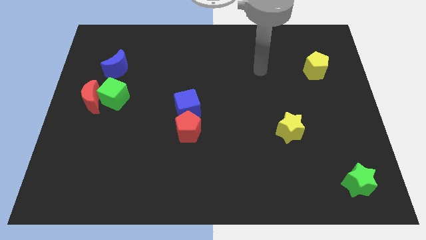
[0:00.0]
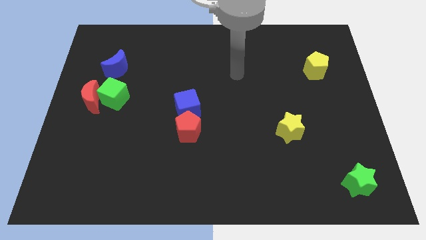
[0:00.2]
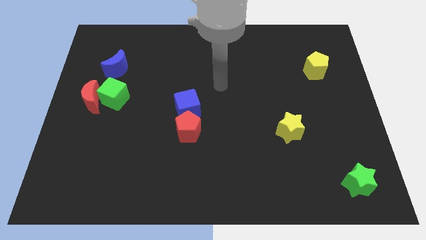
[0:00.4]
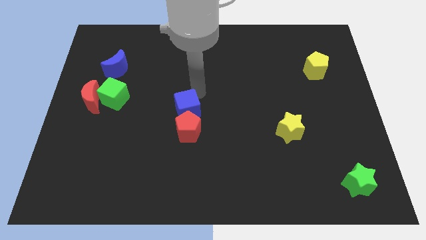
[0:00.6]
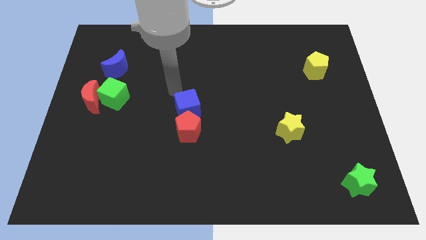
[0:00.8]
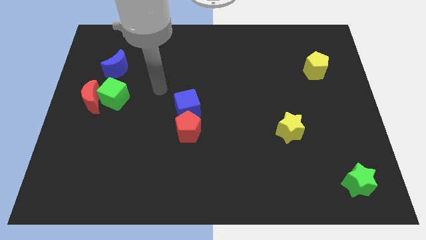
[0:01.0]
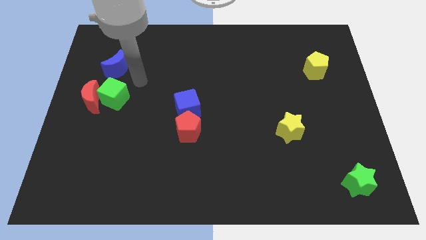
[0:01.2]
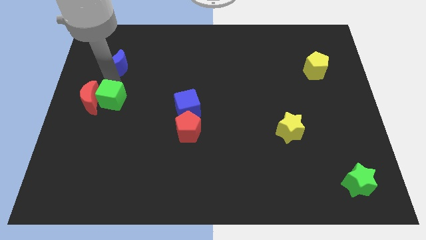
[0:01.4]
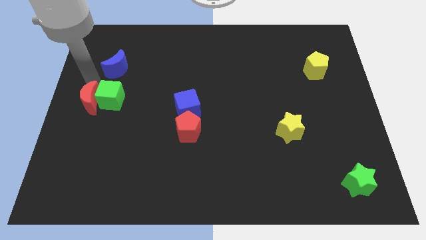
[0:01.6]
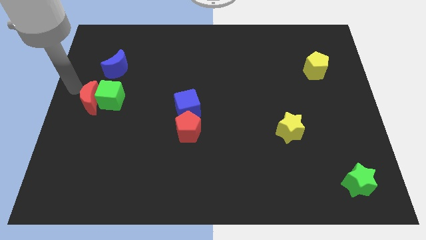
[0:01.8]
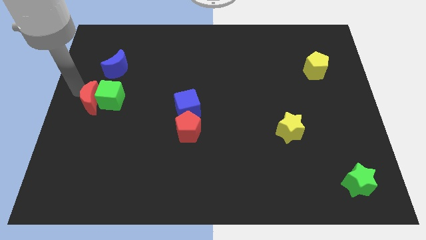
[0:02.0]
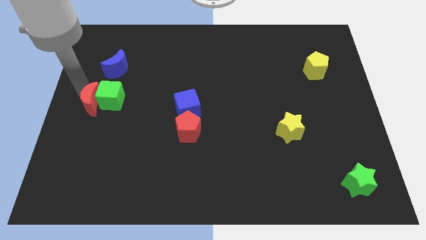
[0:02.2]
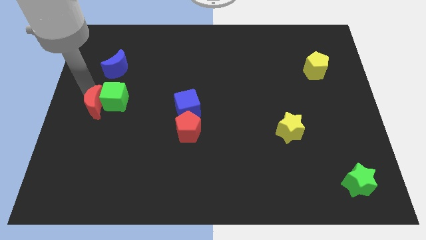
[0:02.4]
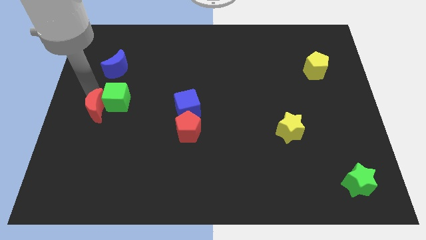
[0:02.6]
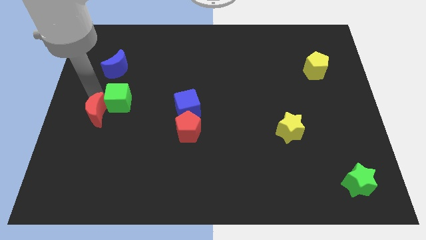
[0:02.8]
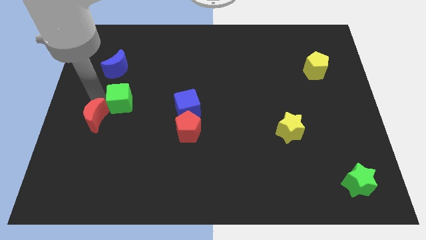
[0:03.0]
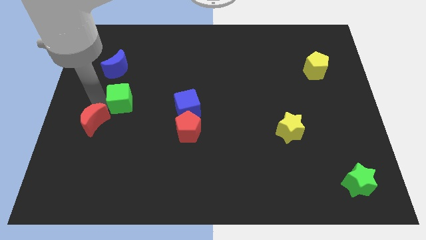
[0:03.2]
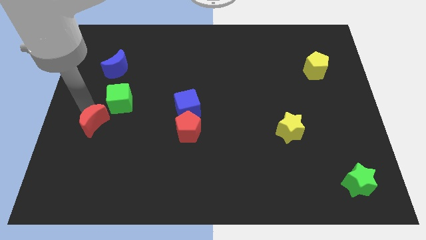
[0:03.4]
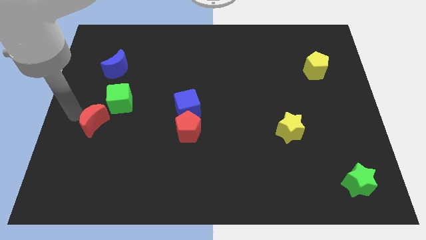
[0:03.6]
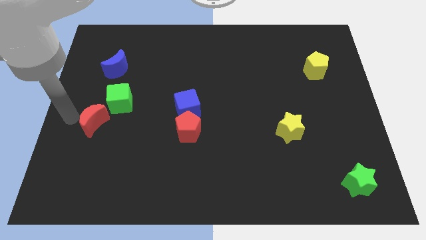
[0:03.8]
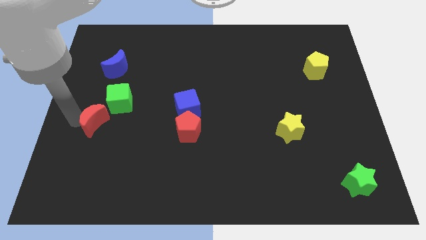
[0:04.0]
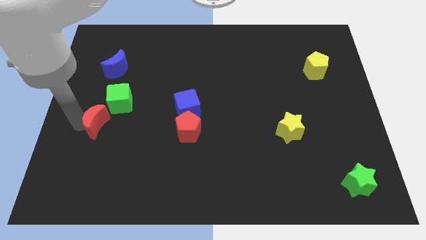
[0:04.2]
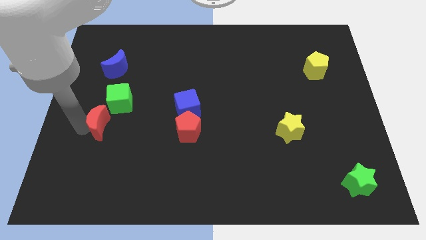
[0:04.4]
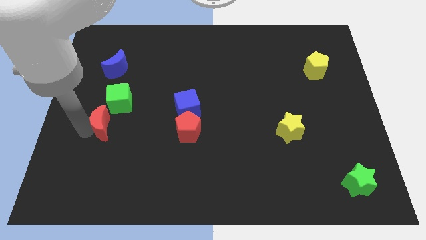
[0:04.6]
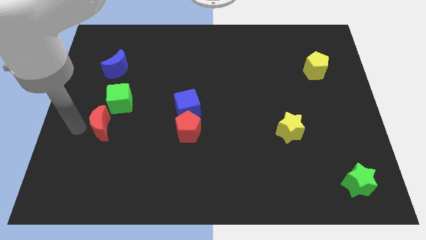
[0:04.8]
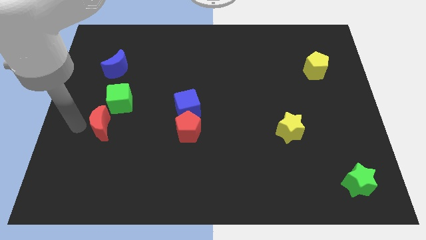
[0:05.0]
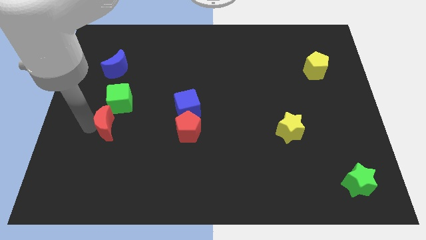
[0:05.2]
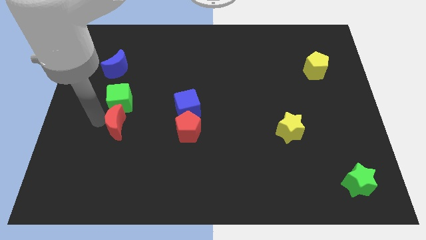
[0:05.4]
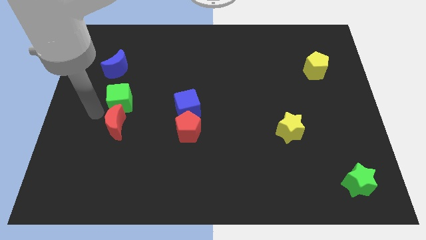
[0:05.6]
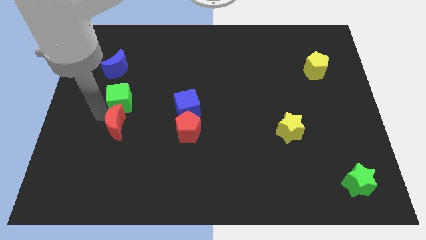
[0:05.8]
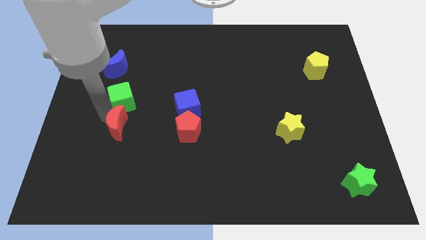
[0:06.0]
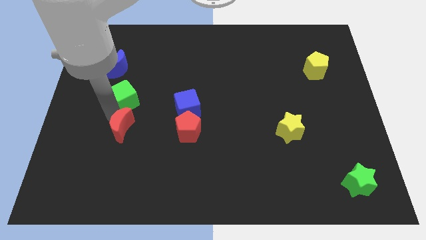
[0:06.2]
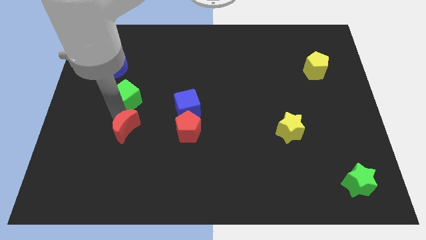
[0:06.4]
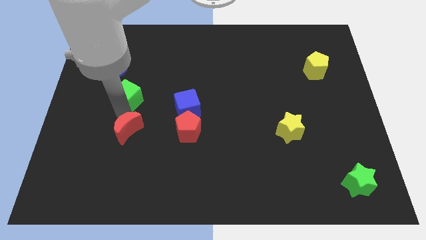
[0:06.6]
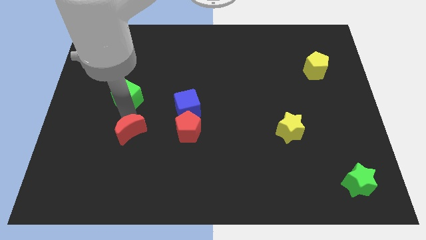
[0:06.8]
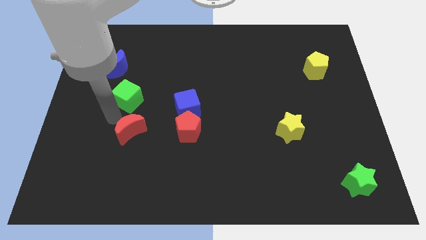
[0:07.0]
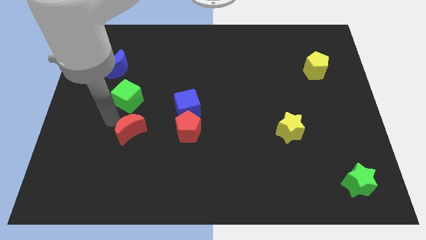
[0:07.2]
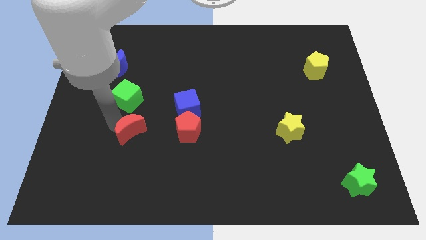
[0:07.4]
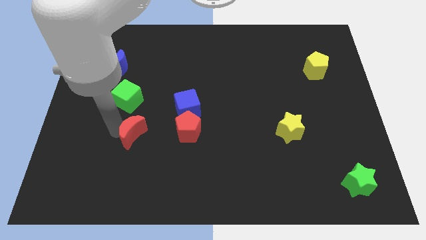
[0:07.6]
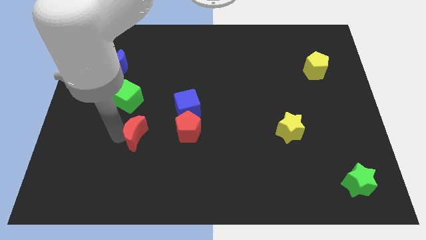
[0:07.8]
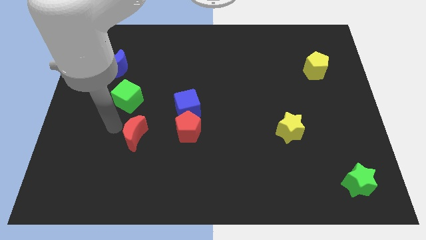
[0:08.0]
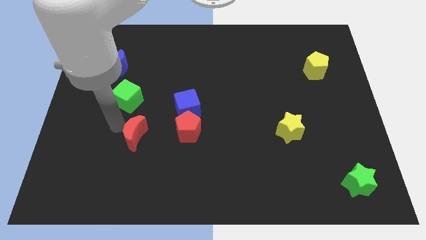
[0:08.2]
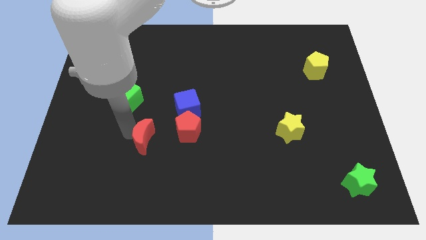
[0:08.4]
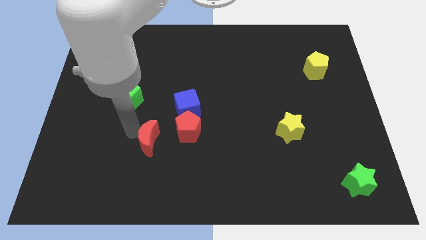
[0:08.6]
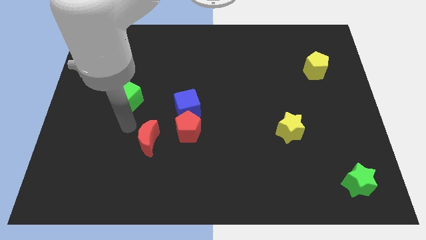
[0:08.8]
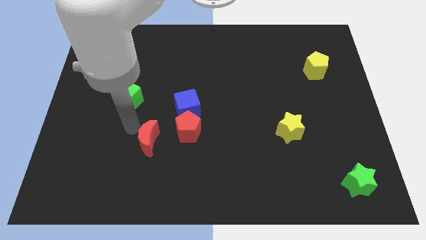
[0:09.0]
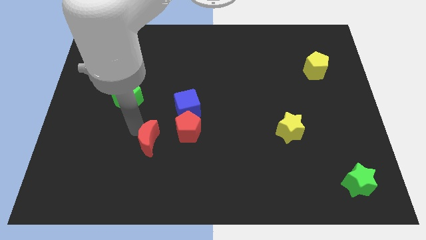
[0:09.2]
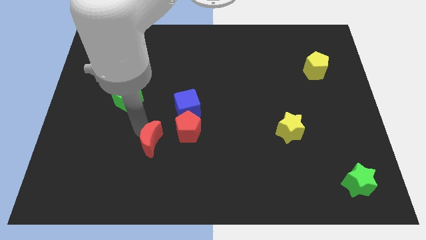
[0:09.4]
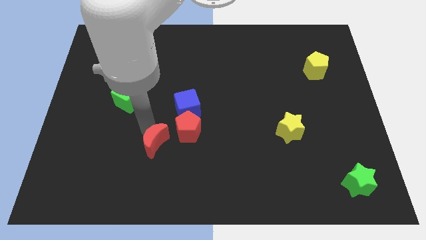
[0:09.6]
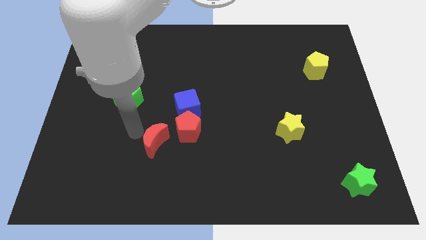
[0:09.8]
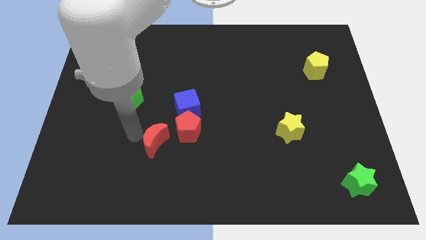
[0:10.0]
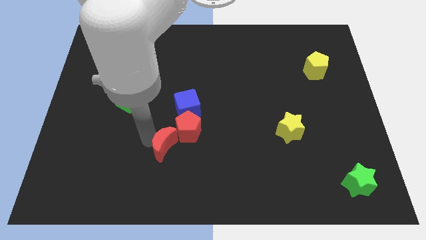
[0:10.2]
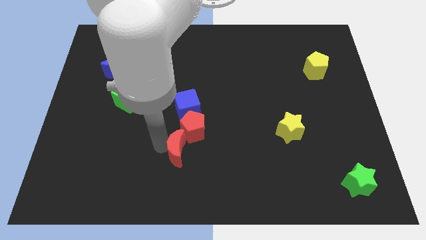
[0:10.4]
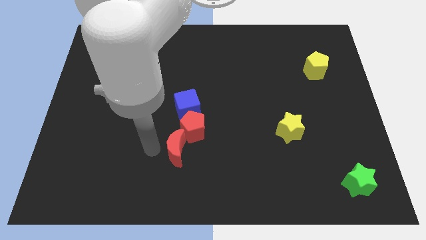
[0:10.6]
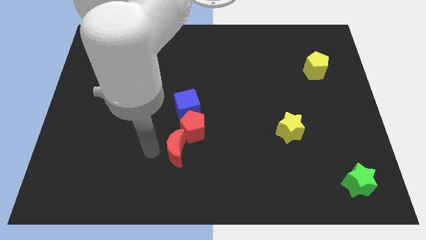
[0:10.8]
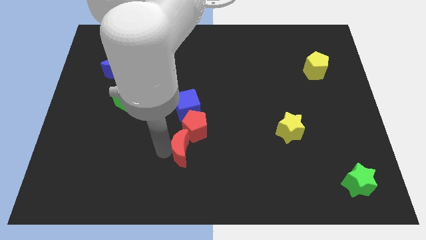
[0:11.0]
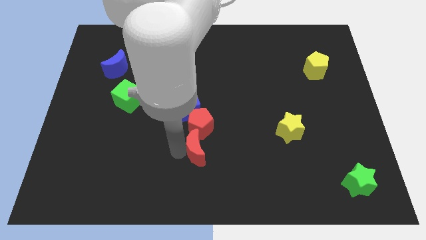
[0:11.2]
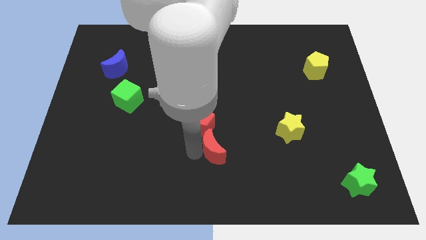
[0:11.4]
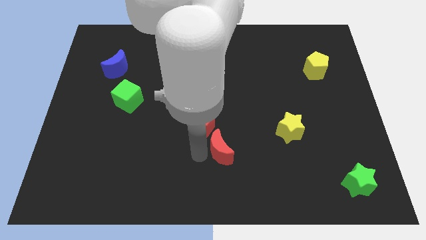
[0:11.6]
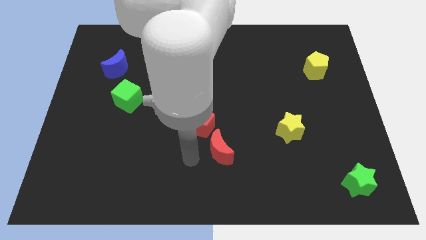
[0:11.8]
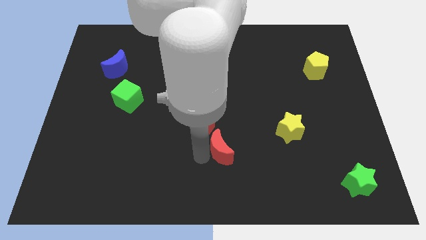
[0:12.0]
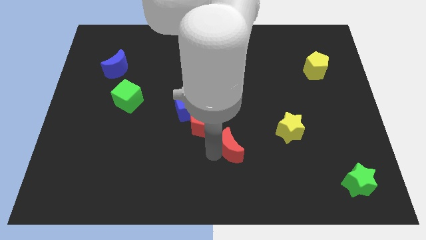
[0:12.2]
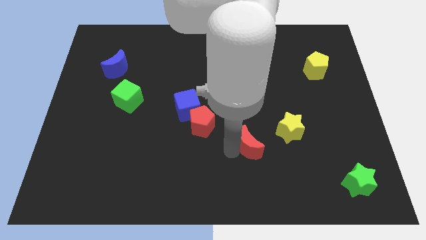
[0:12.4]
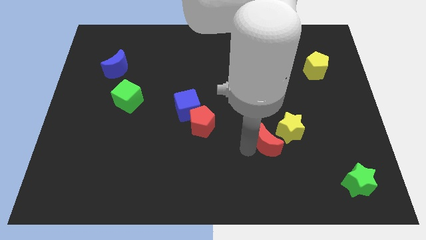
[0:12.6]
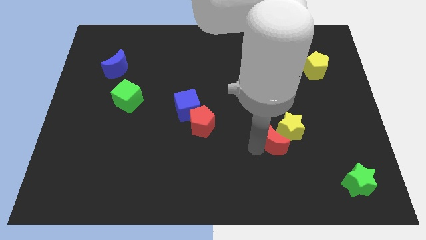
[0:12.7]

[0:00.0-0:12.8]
put the red moon next to the yellow star

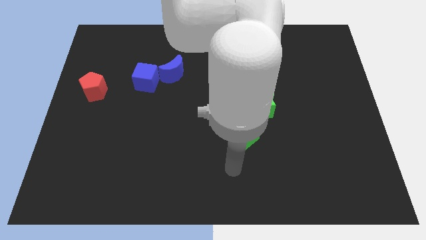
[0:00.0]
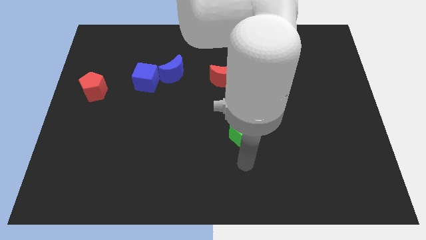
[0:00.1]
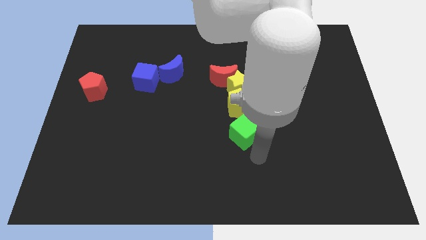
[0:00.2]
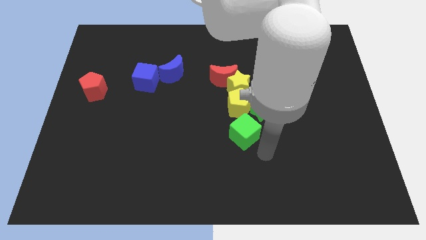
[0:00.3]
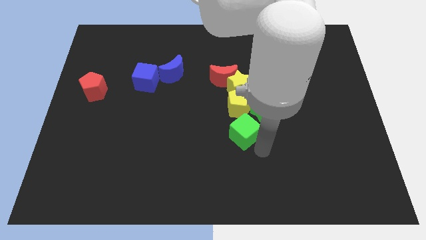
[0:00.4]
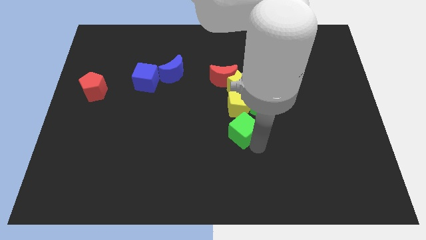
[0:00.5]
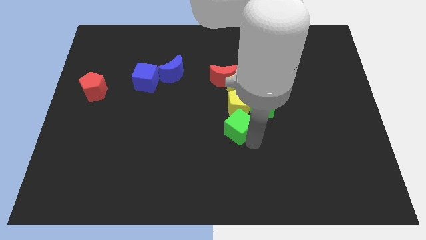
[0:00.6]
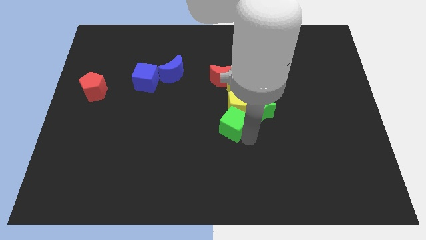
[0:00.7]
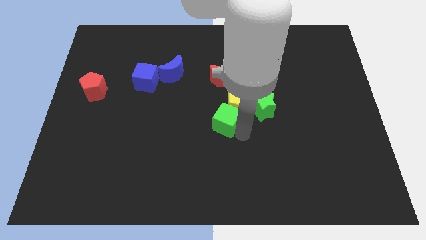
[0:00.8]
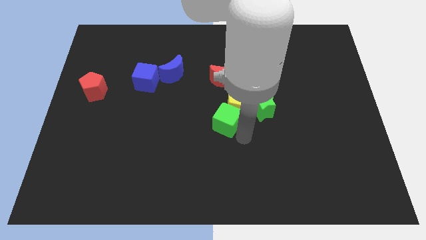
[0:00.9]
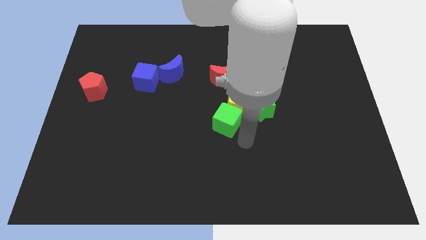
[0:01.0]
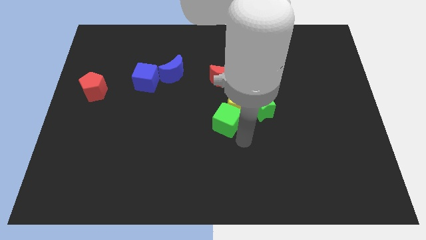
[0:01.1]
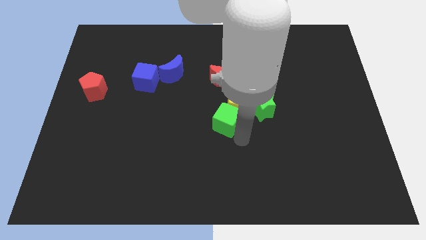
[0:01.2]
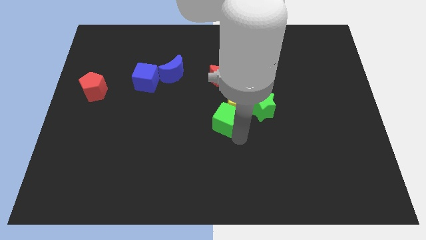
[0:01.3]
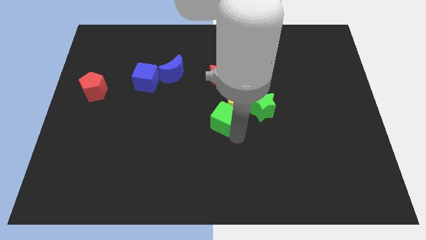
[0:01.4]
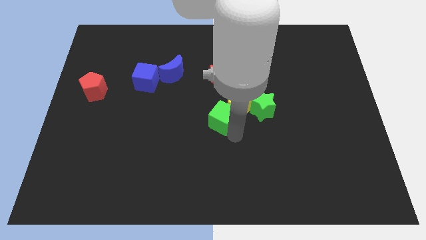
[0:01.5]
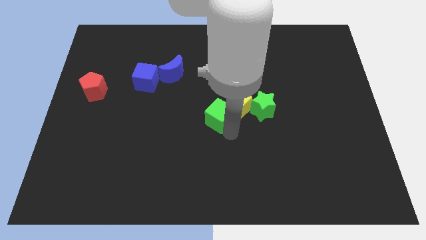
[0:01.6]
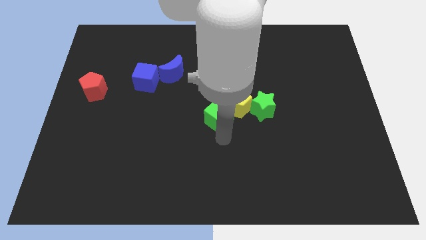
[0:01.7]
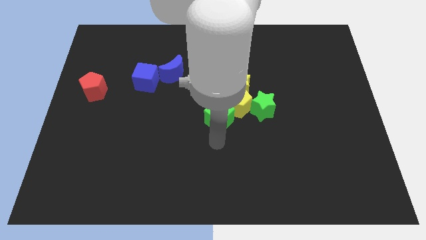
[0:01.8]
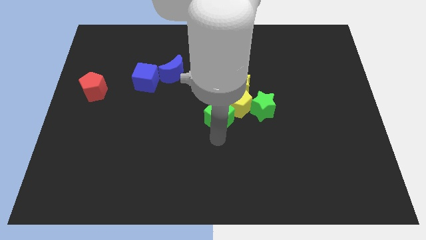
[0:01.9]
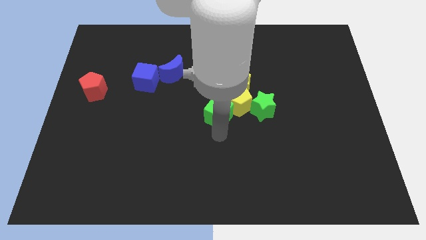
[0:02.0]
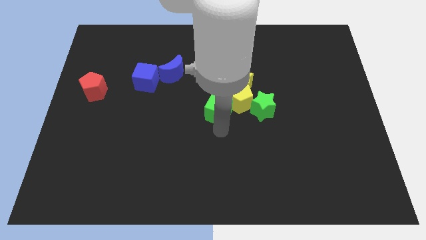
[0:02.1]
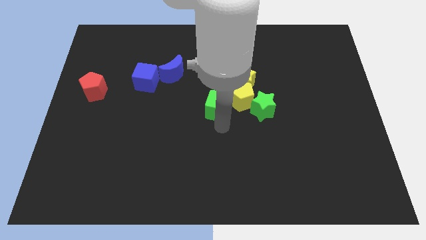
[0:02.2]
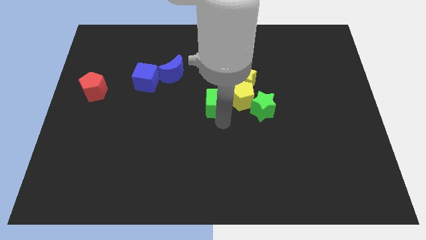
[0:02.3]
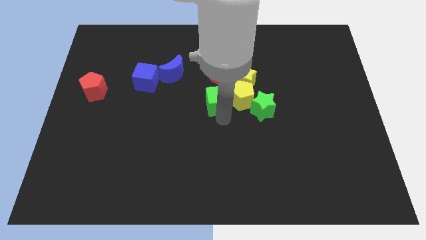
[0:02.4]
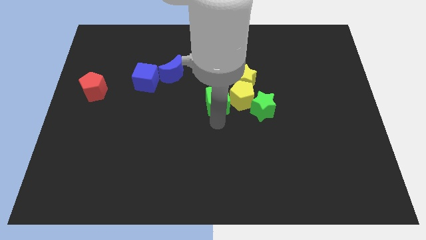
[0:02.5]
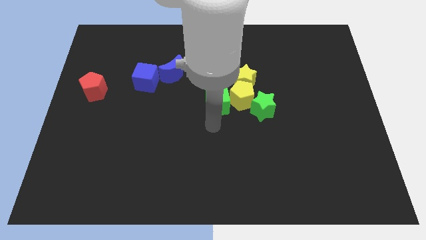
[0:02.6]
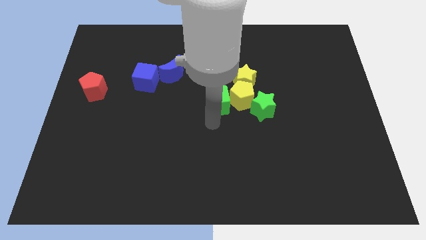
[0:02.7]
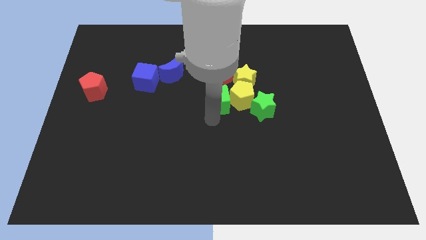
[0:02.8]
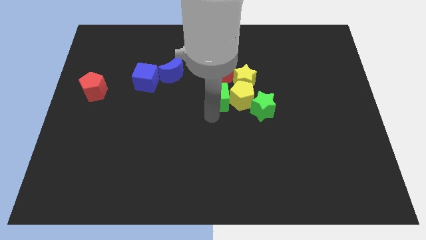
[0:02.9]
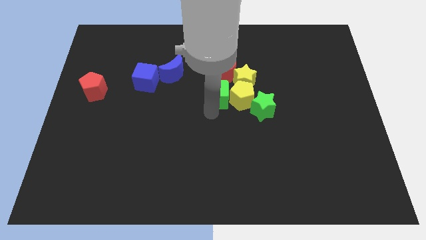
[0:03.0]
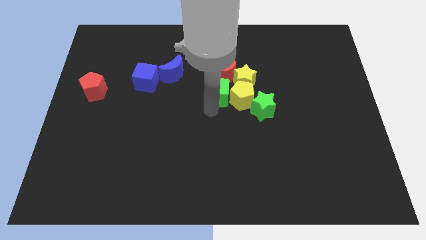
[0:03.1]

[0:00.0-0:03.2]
push the green cube towards the red moon
